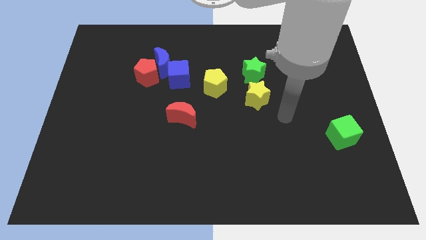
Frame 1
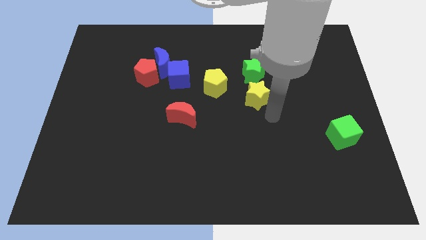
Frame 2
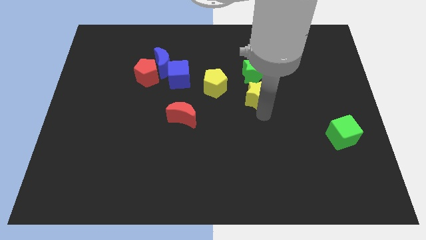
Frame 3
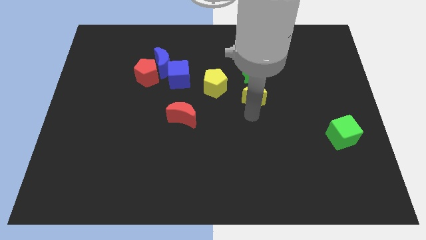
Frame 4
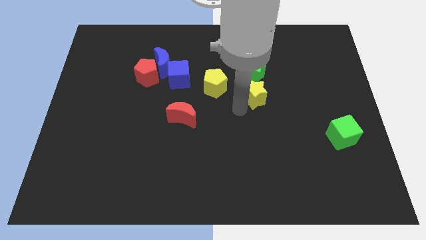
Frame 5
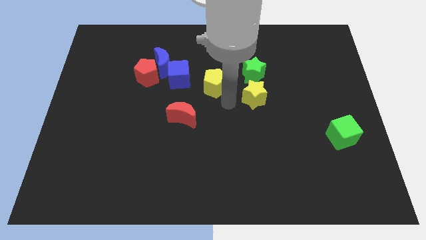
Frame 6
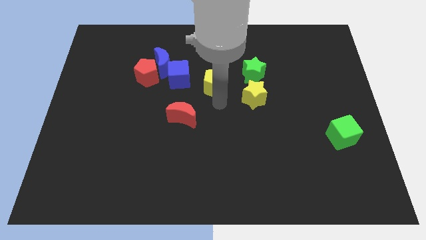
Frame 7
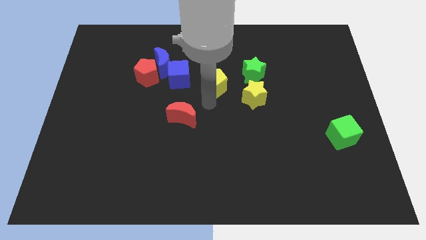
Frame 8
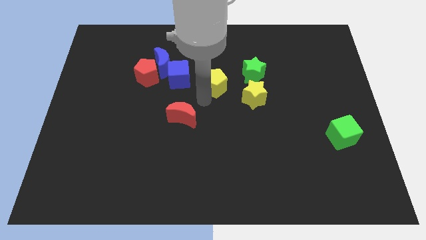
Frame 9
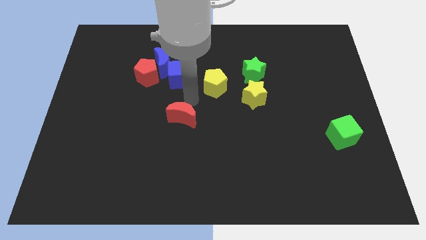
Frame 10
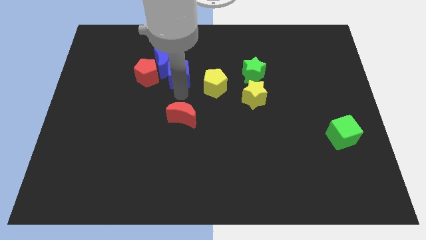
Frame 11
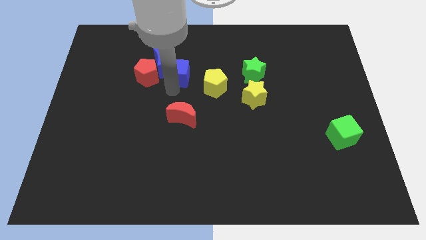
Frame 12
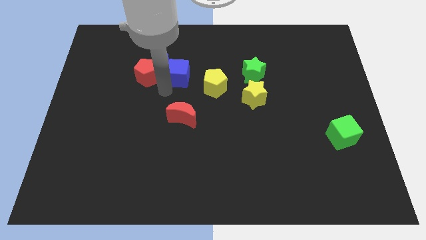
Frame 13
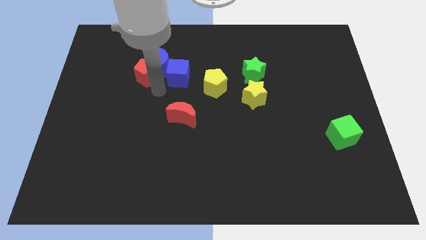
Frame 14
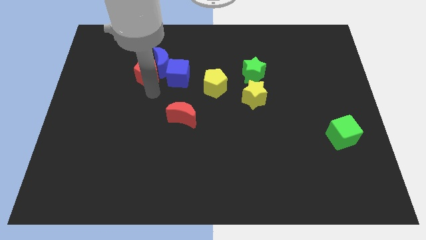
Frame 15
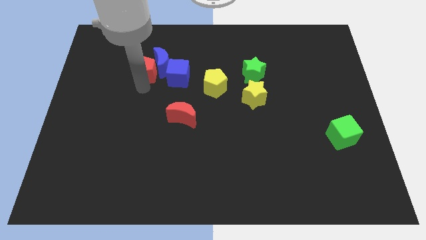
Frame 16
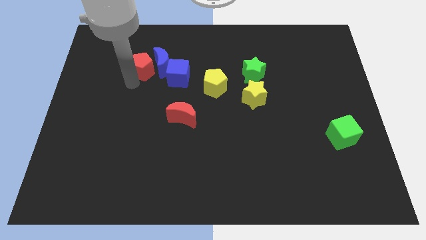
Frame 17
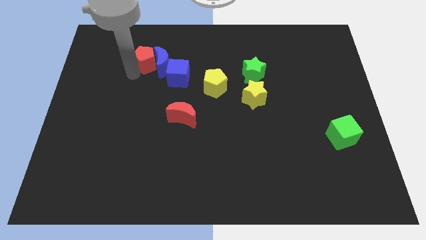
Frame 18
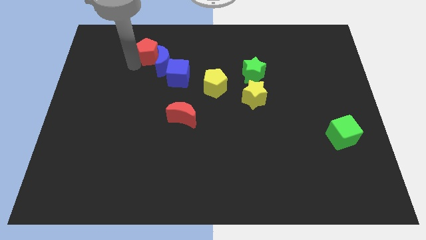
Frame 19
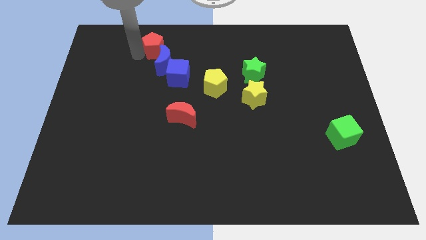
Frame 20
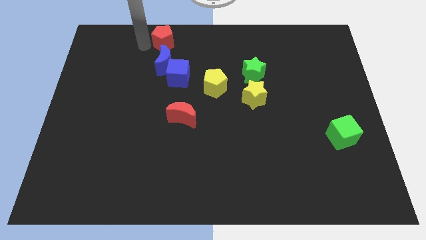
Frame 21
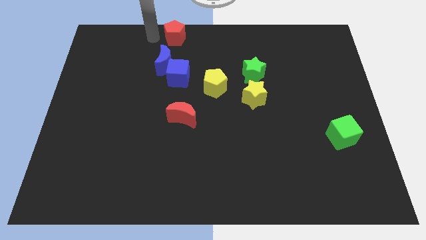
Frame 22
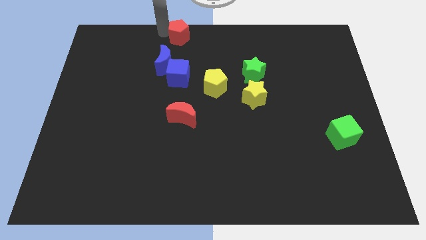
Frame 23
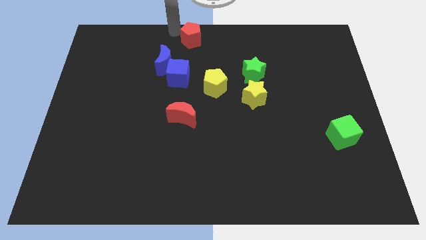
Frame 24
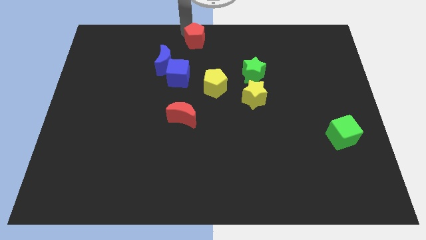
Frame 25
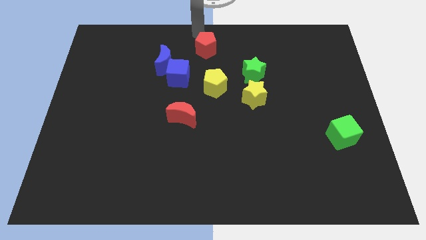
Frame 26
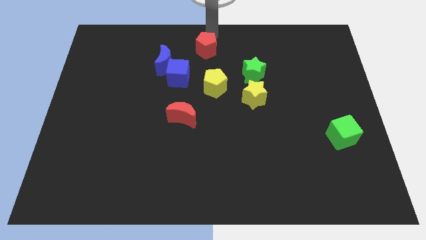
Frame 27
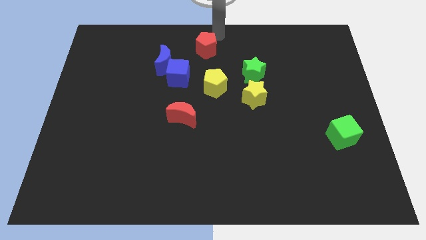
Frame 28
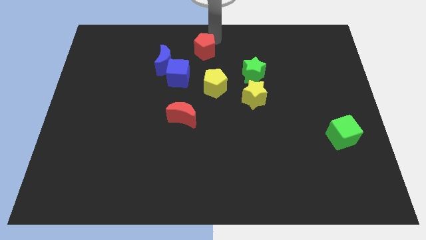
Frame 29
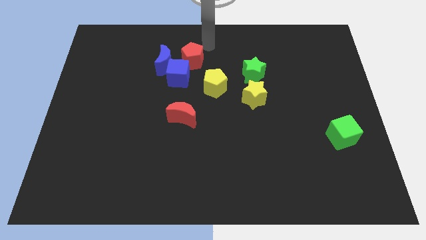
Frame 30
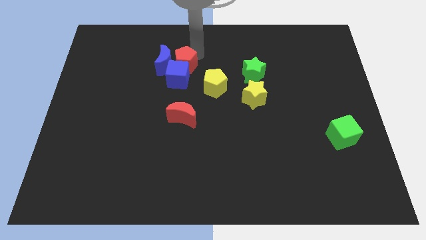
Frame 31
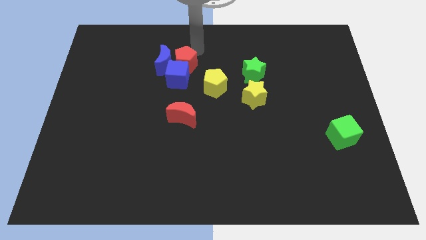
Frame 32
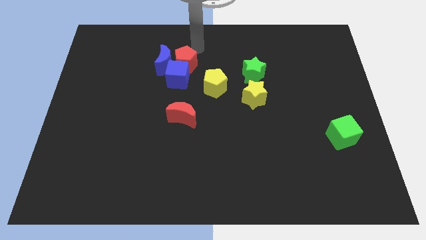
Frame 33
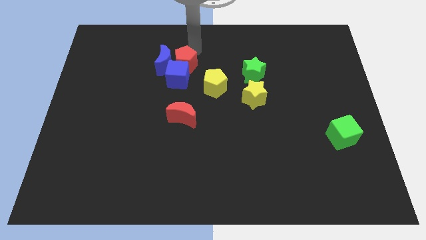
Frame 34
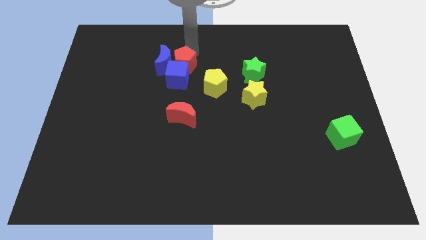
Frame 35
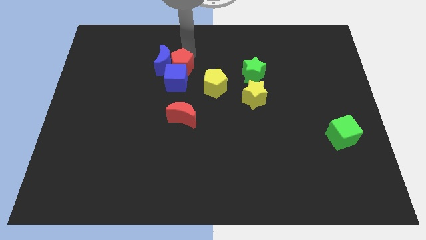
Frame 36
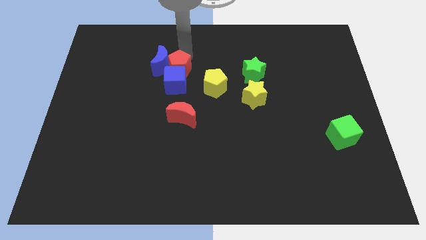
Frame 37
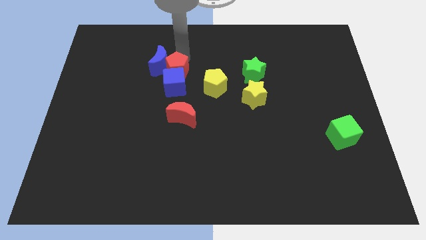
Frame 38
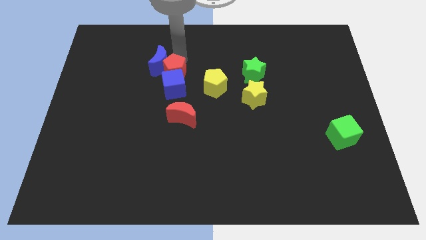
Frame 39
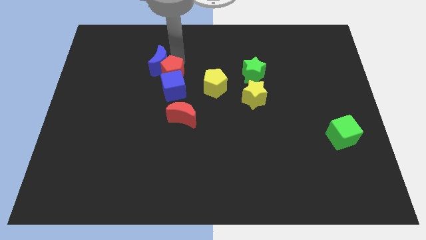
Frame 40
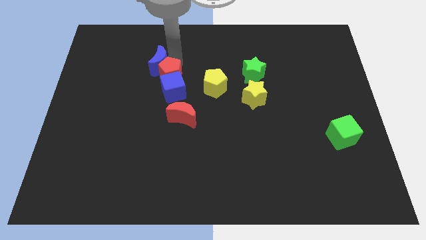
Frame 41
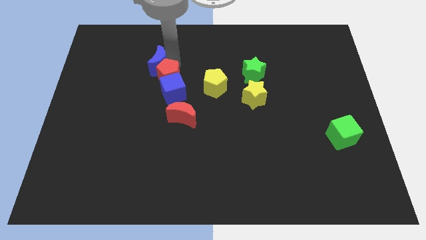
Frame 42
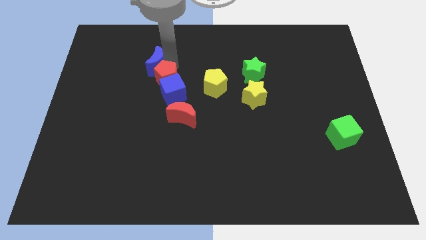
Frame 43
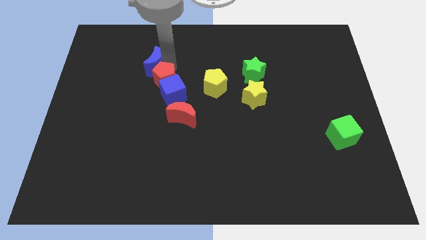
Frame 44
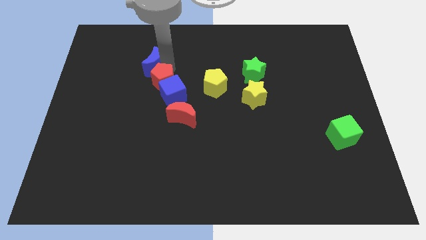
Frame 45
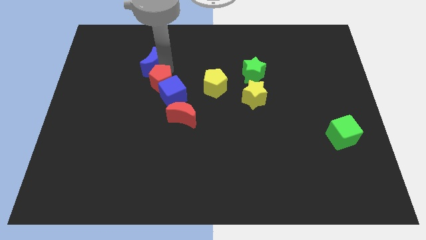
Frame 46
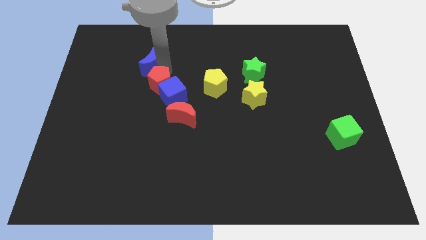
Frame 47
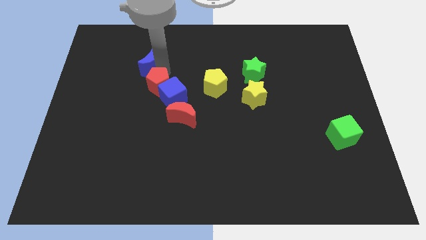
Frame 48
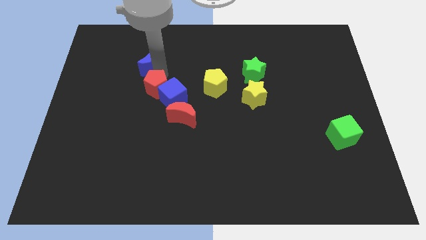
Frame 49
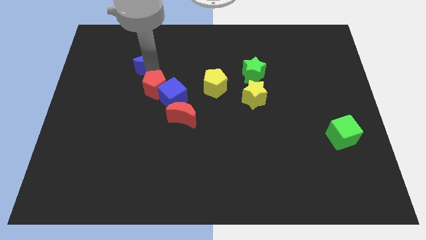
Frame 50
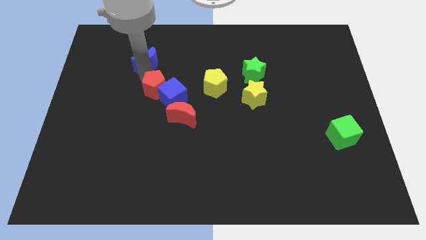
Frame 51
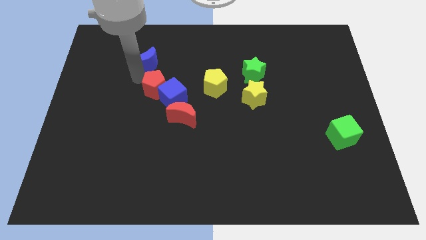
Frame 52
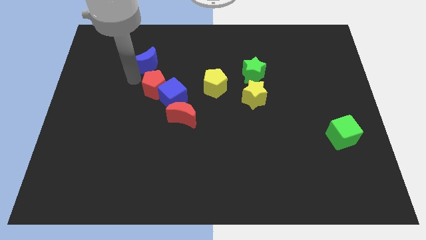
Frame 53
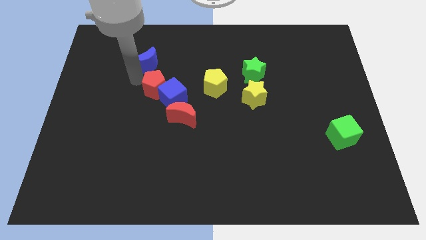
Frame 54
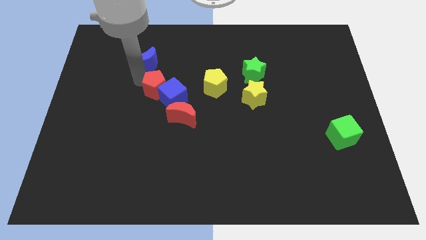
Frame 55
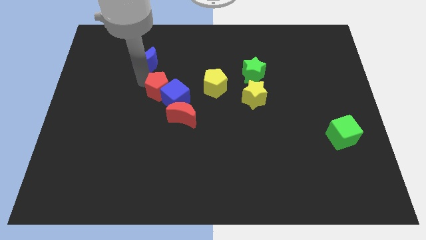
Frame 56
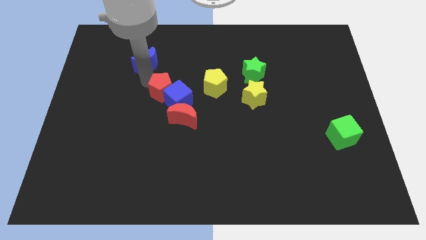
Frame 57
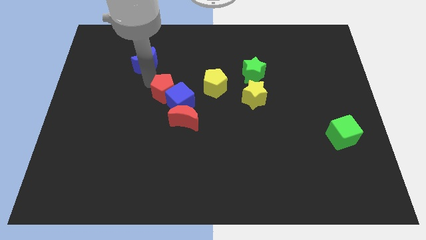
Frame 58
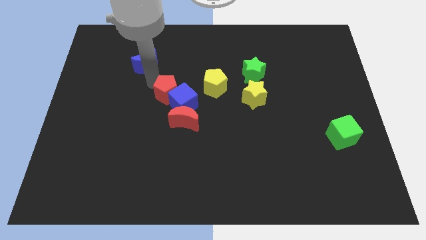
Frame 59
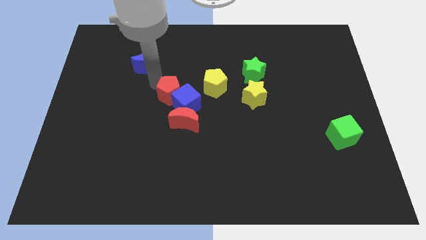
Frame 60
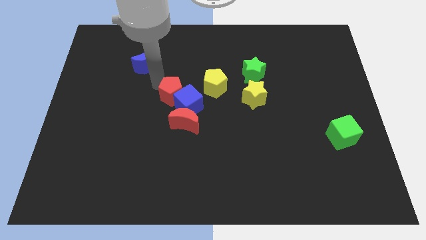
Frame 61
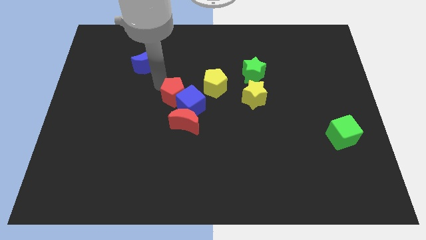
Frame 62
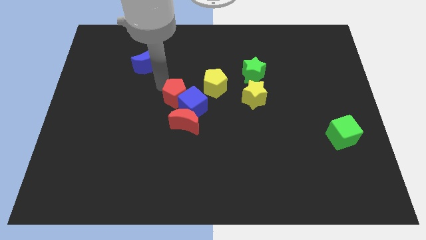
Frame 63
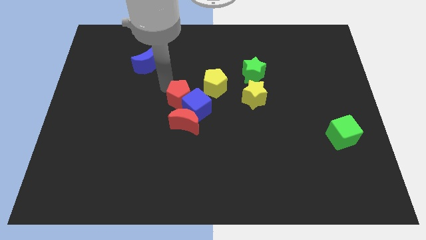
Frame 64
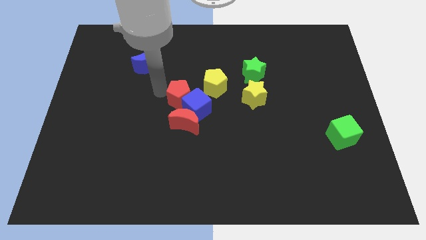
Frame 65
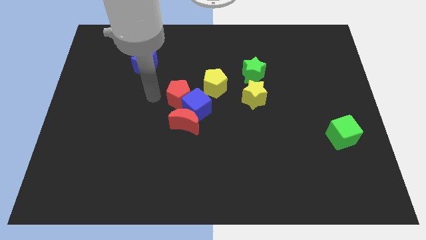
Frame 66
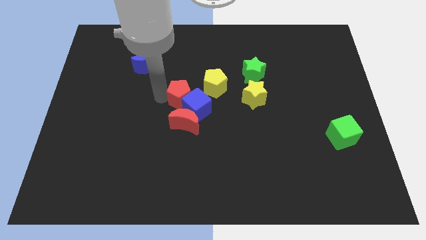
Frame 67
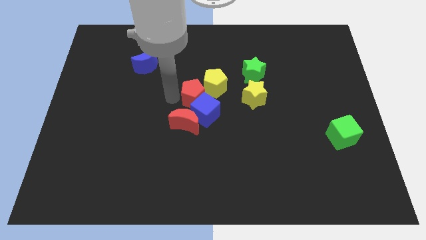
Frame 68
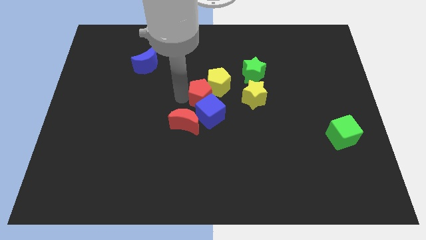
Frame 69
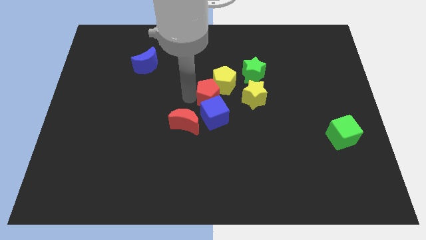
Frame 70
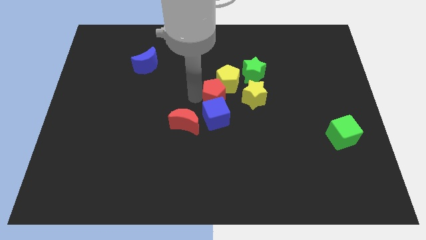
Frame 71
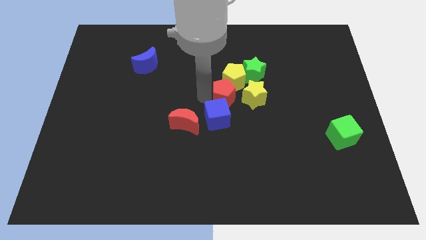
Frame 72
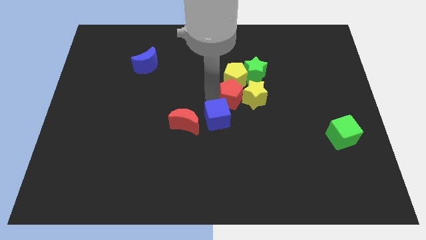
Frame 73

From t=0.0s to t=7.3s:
put the red pentagon towards the yellow star
